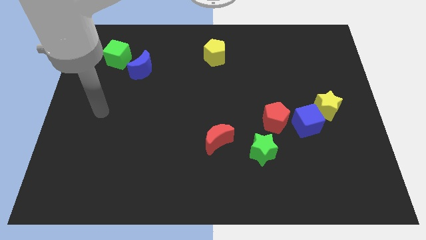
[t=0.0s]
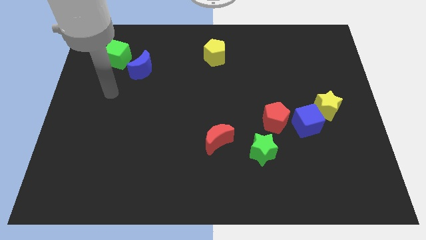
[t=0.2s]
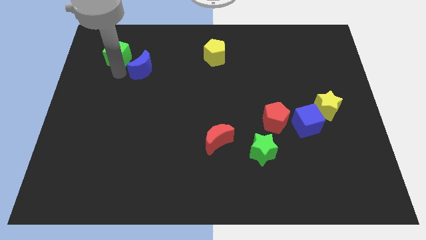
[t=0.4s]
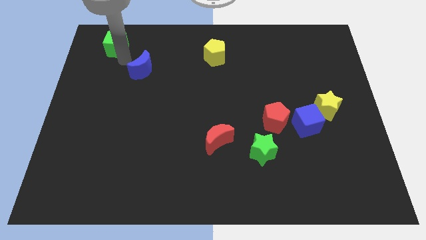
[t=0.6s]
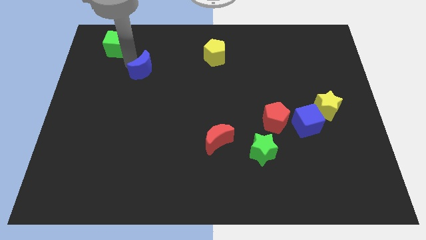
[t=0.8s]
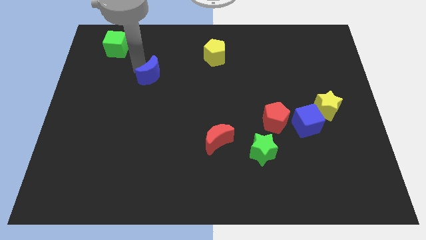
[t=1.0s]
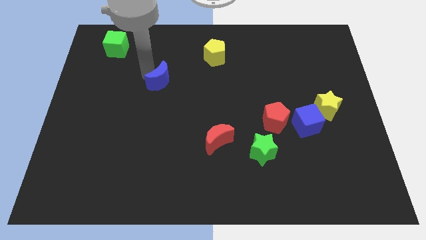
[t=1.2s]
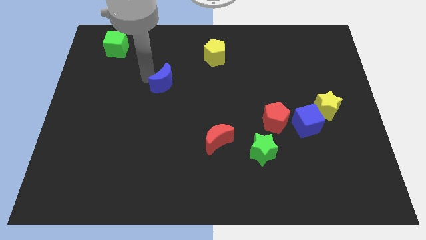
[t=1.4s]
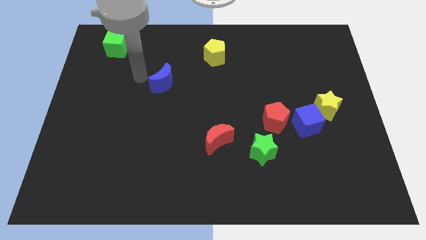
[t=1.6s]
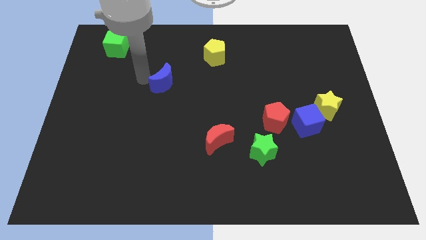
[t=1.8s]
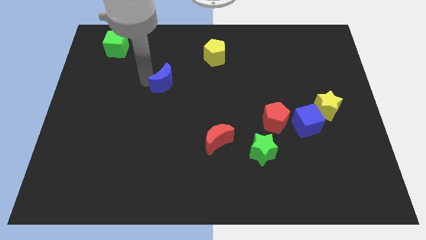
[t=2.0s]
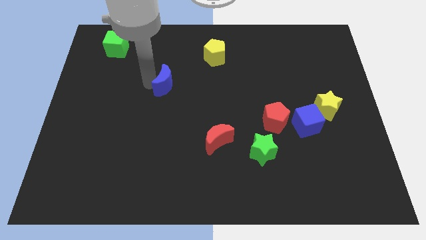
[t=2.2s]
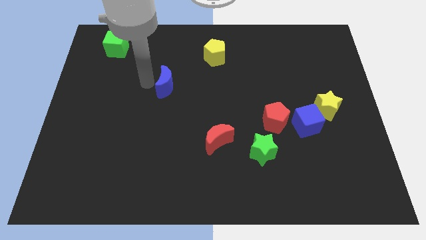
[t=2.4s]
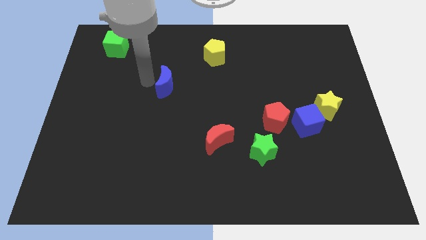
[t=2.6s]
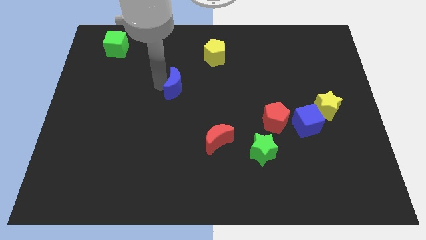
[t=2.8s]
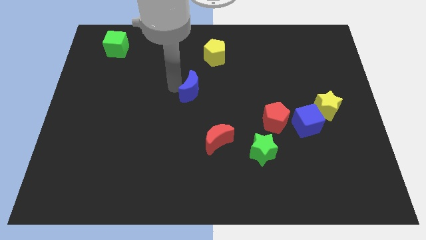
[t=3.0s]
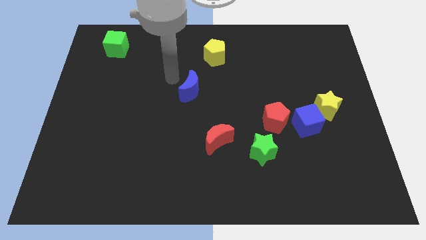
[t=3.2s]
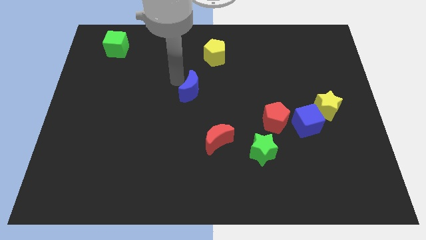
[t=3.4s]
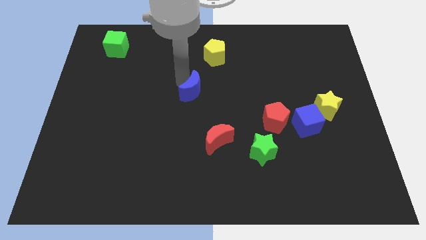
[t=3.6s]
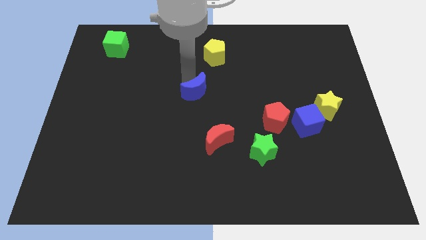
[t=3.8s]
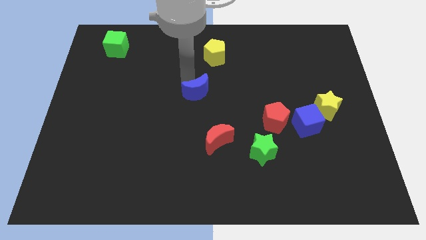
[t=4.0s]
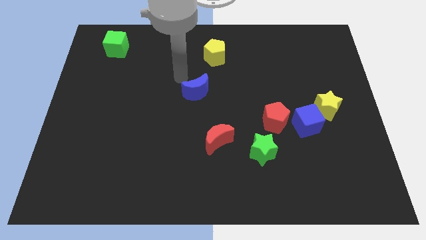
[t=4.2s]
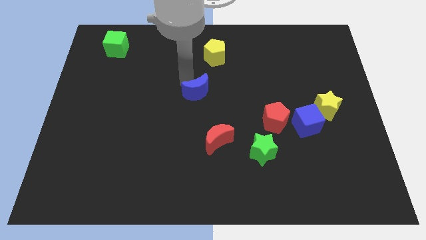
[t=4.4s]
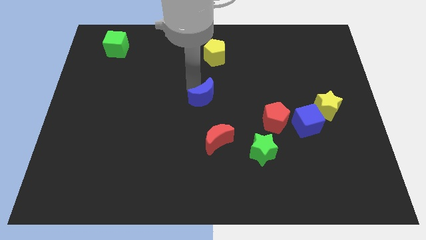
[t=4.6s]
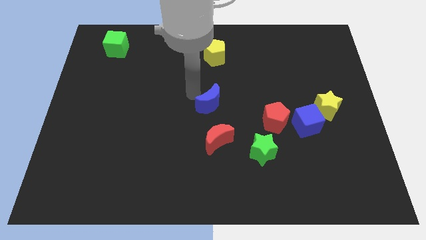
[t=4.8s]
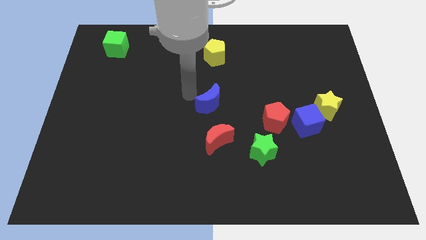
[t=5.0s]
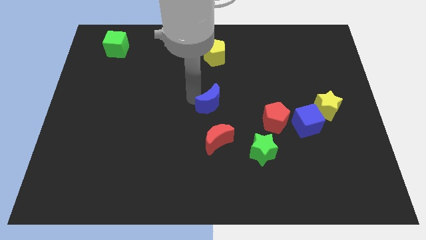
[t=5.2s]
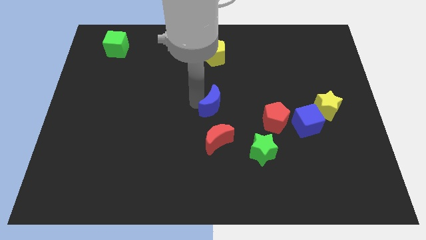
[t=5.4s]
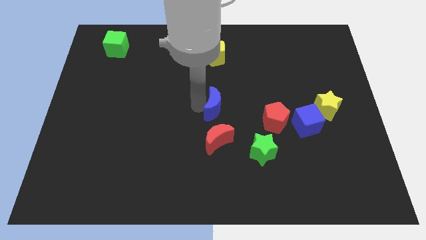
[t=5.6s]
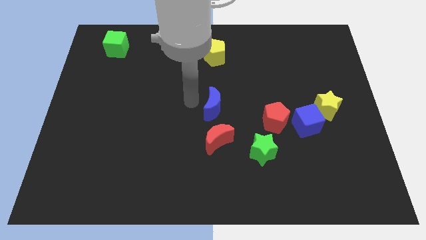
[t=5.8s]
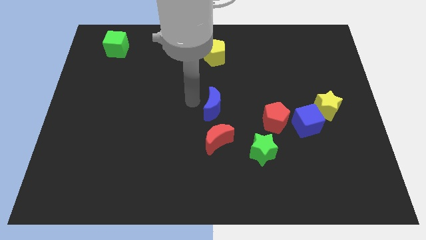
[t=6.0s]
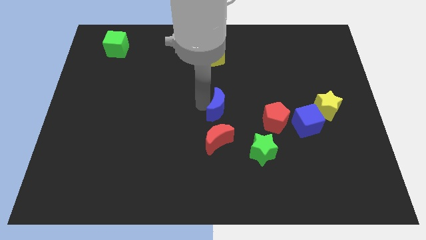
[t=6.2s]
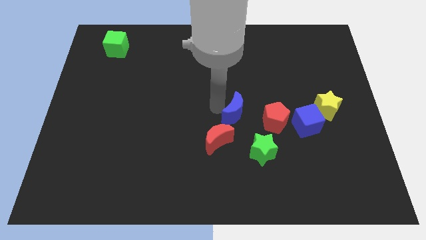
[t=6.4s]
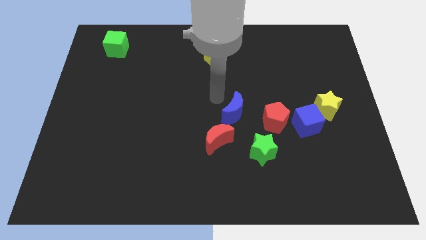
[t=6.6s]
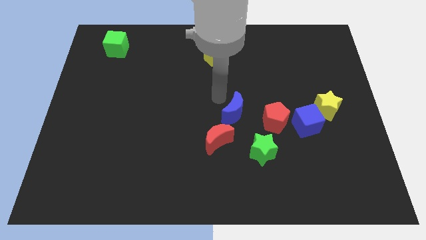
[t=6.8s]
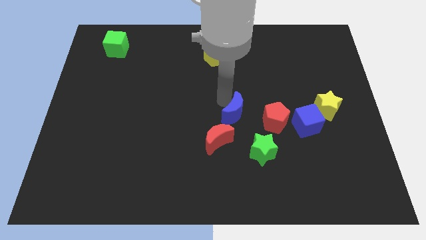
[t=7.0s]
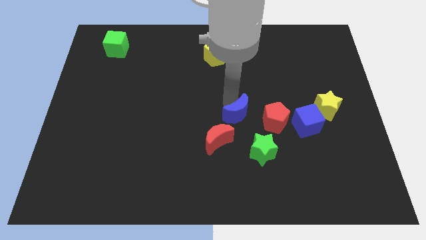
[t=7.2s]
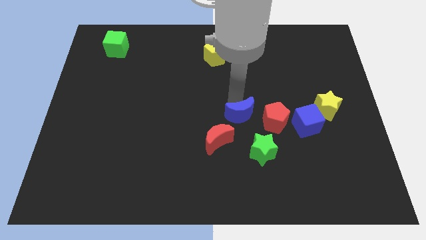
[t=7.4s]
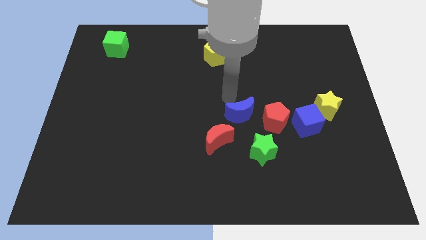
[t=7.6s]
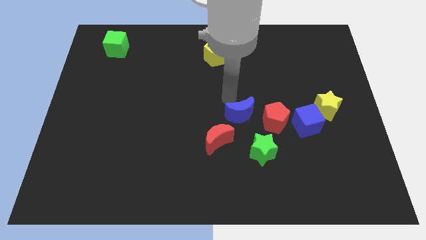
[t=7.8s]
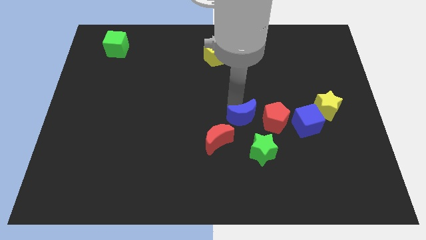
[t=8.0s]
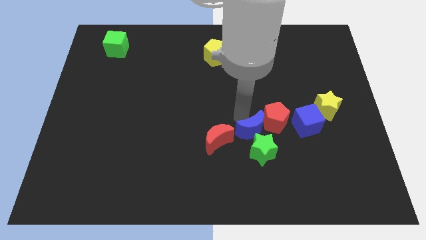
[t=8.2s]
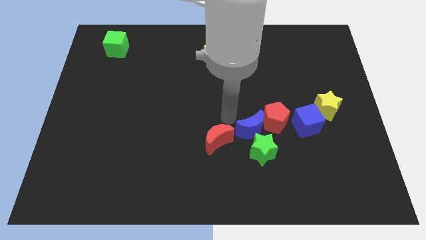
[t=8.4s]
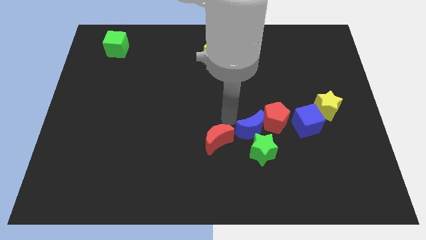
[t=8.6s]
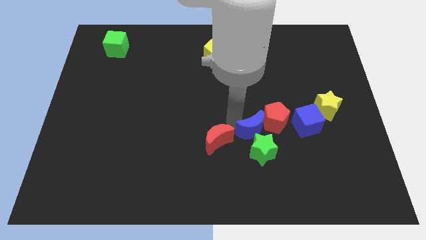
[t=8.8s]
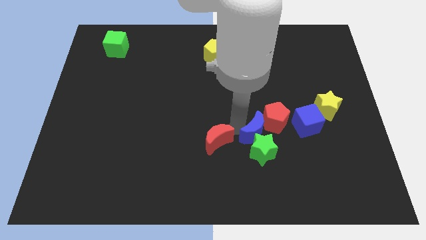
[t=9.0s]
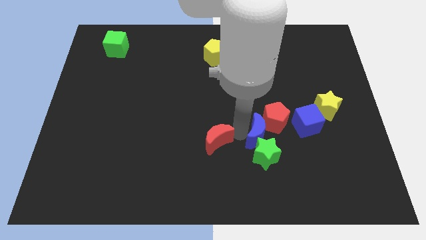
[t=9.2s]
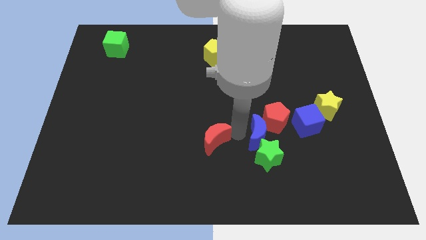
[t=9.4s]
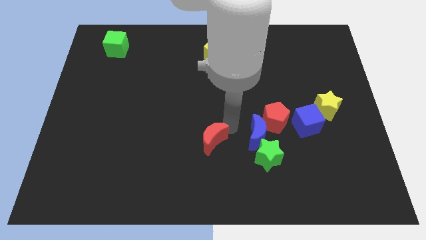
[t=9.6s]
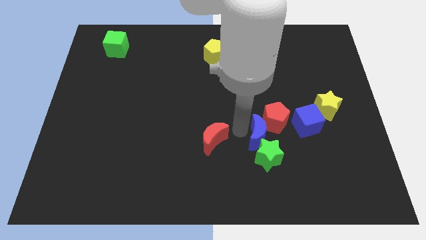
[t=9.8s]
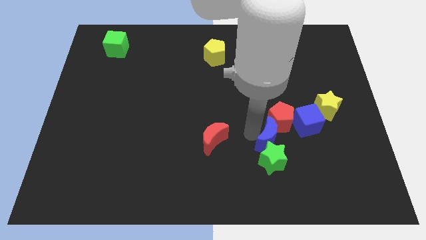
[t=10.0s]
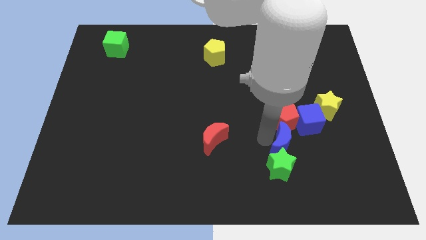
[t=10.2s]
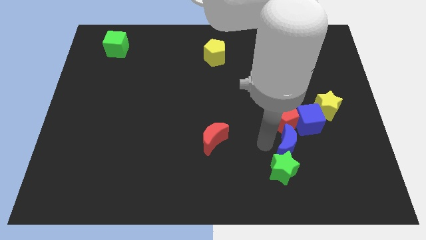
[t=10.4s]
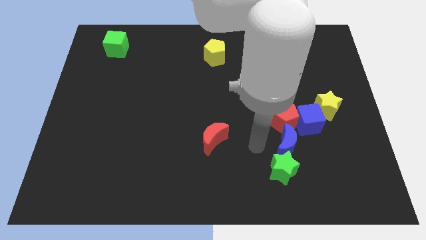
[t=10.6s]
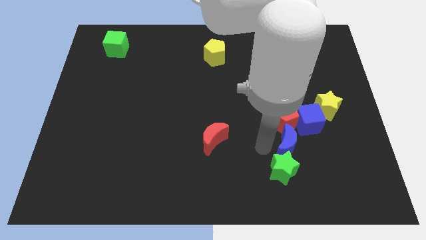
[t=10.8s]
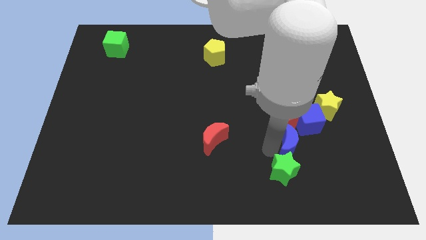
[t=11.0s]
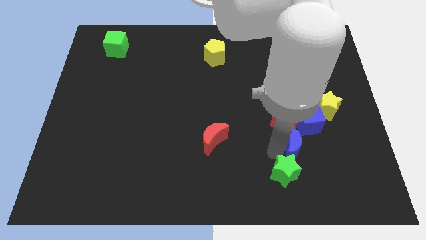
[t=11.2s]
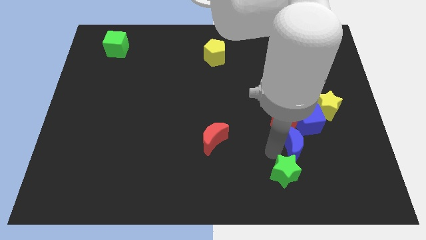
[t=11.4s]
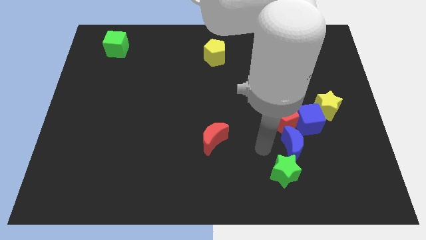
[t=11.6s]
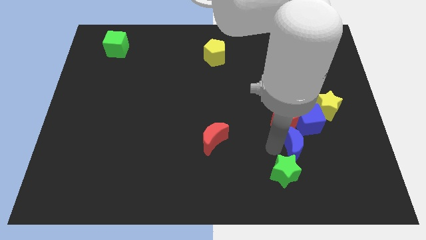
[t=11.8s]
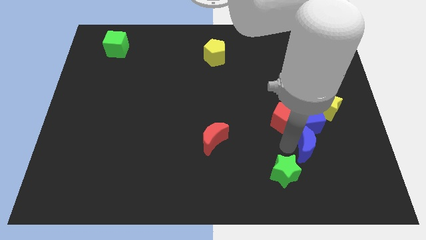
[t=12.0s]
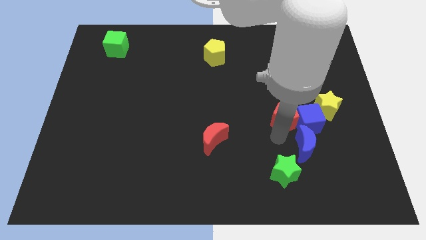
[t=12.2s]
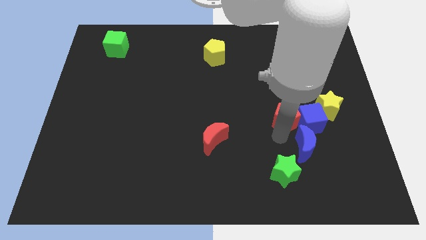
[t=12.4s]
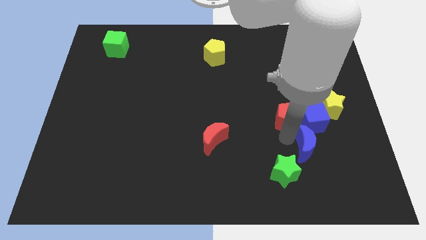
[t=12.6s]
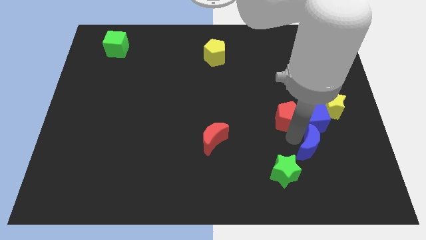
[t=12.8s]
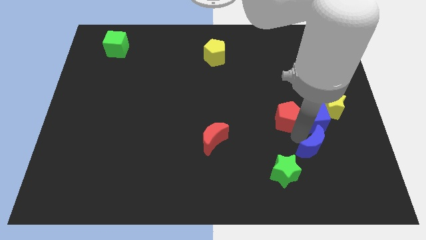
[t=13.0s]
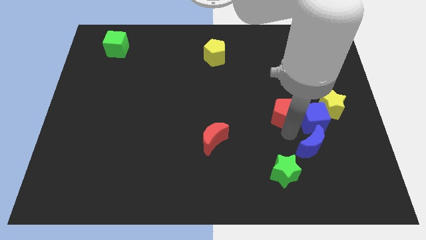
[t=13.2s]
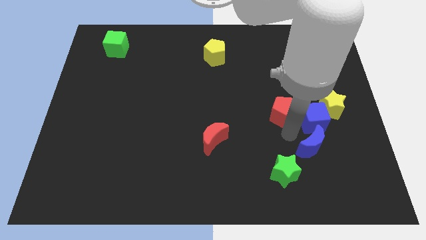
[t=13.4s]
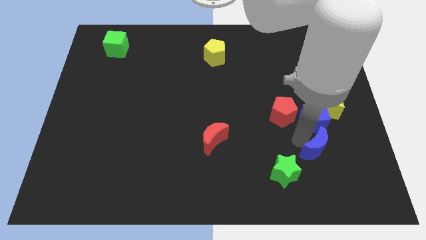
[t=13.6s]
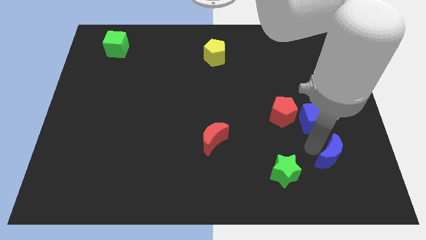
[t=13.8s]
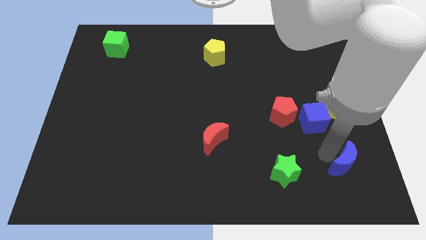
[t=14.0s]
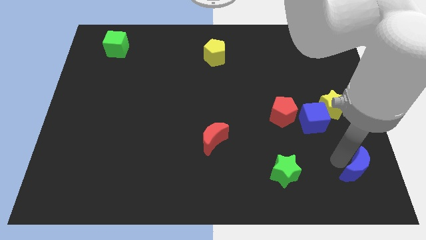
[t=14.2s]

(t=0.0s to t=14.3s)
slide the blue moon to the lower right corner
